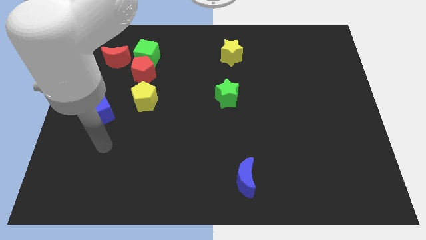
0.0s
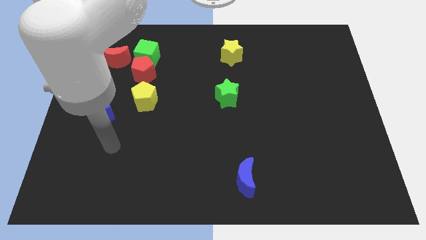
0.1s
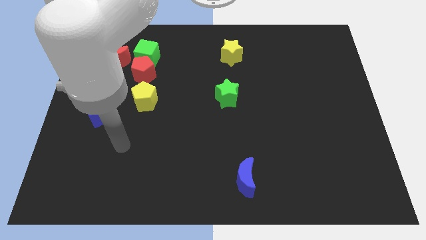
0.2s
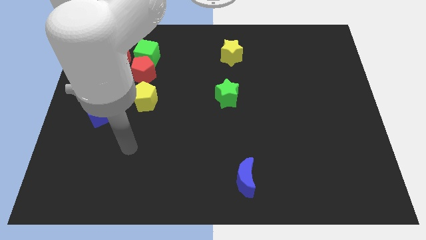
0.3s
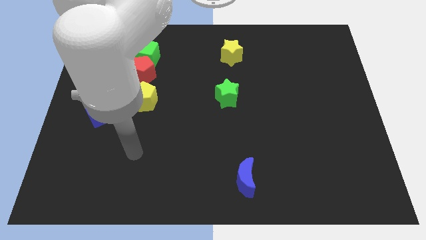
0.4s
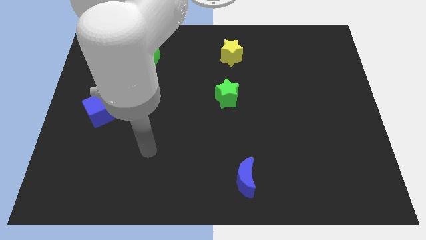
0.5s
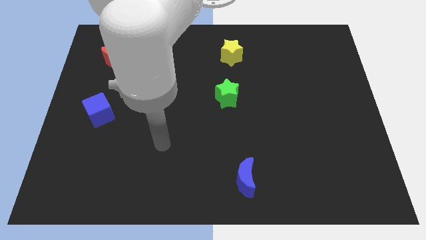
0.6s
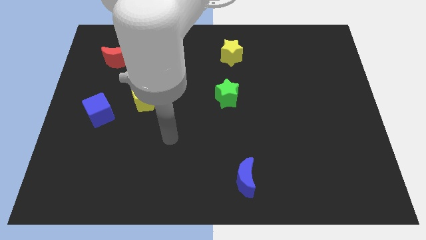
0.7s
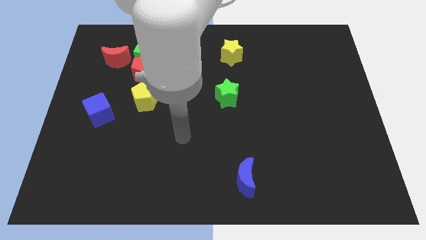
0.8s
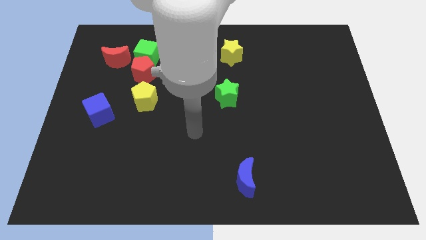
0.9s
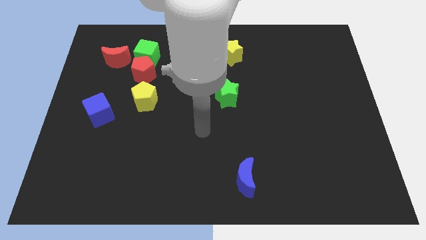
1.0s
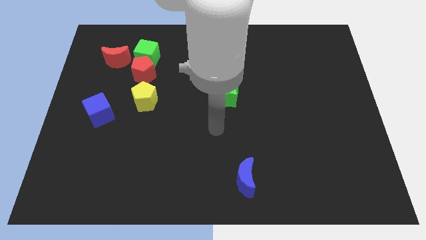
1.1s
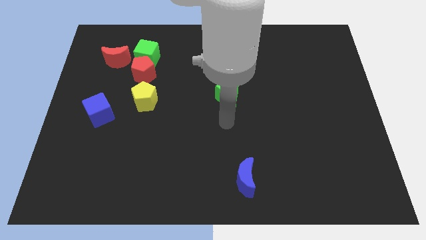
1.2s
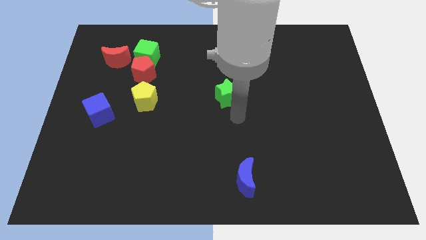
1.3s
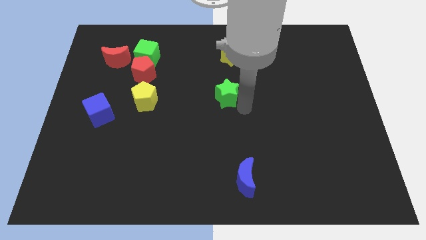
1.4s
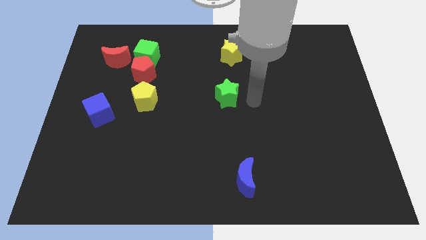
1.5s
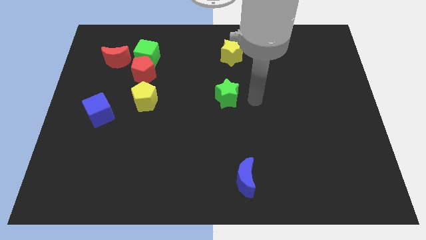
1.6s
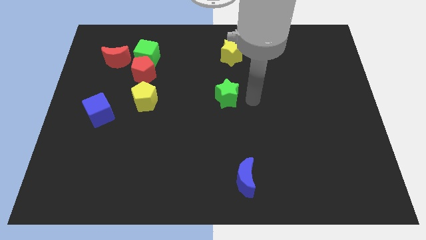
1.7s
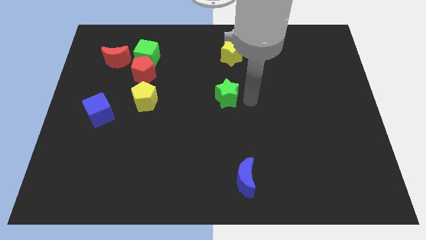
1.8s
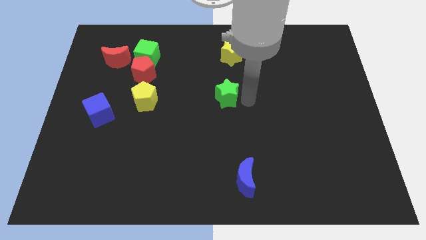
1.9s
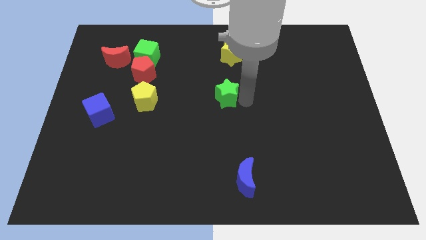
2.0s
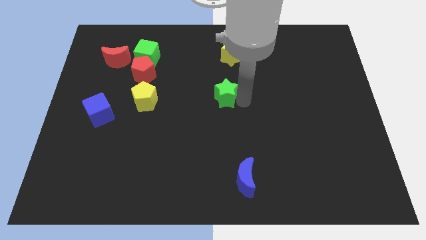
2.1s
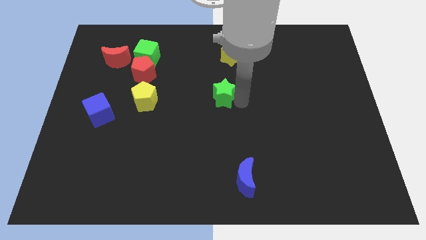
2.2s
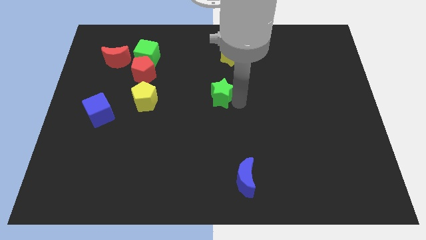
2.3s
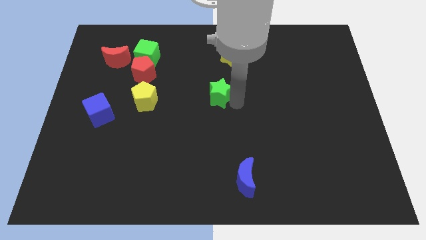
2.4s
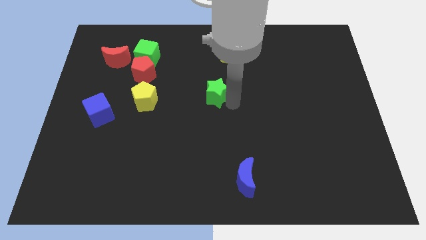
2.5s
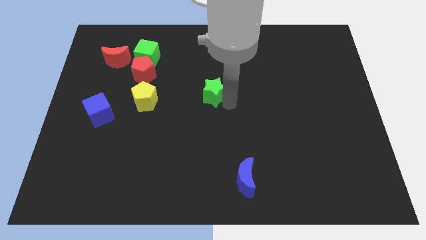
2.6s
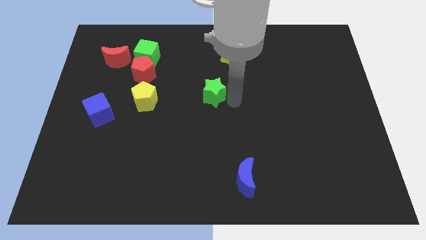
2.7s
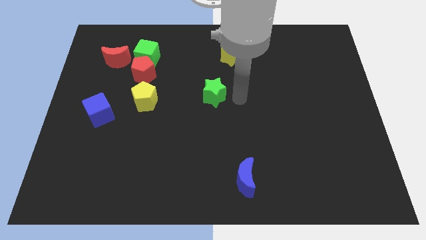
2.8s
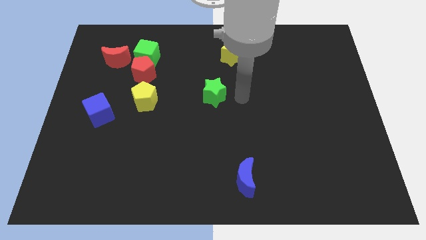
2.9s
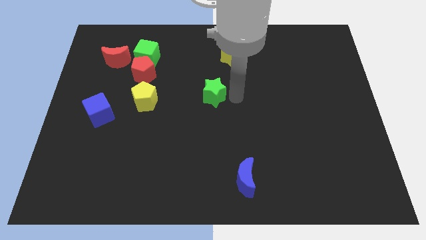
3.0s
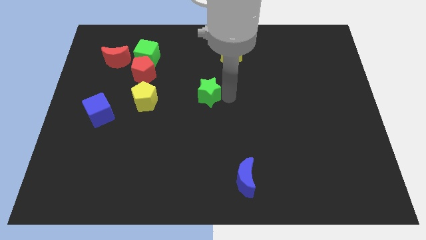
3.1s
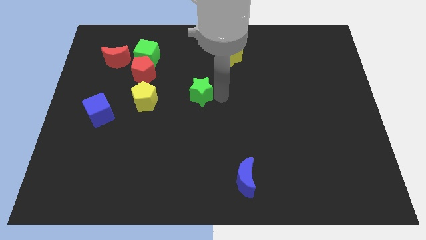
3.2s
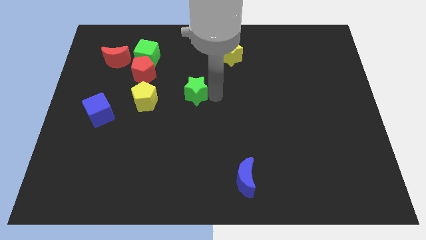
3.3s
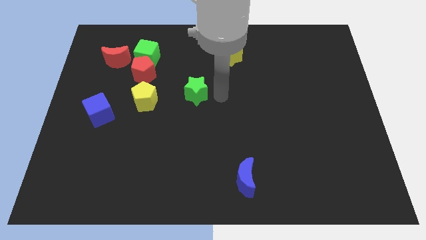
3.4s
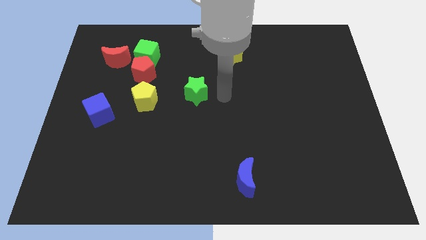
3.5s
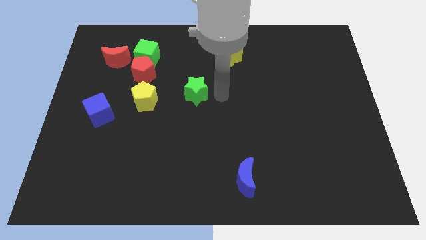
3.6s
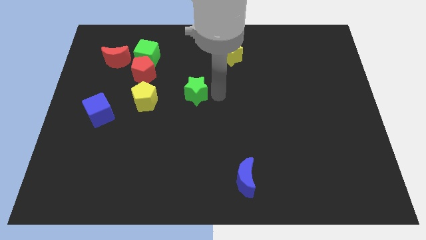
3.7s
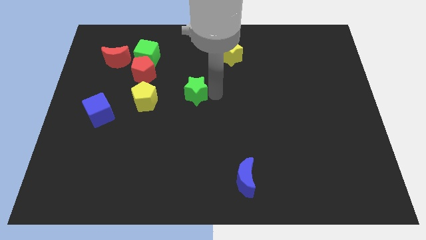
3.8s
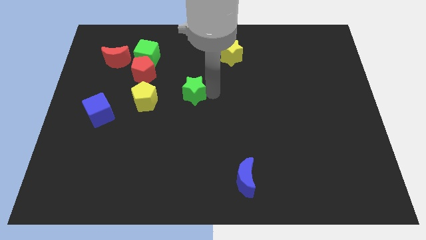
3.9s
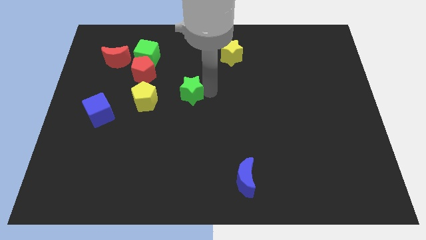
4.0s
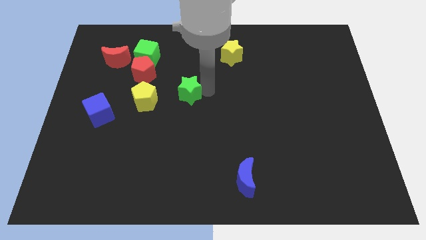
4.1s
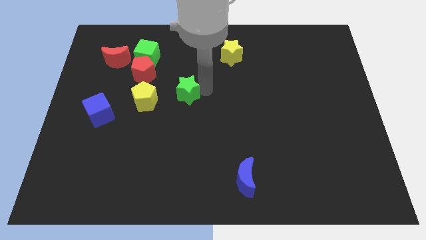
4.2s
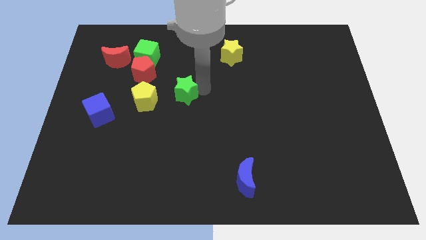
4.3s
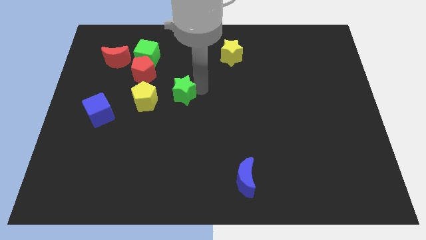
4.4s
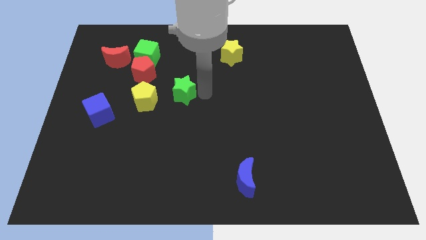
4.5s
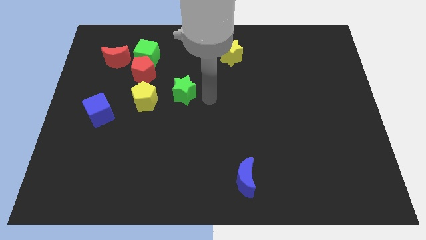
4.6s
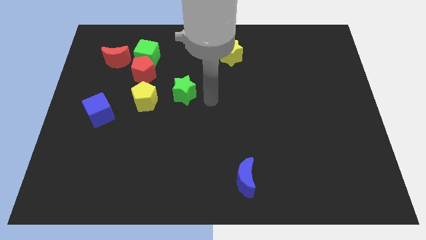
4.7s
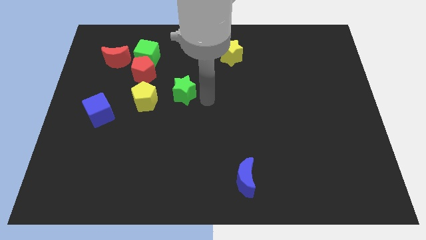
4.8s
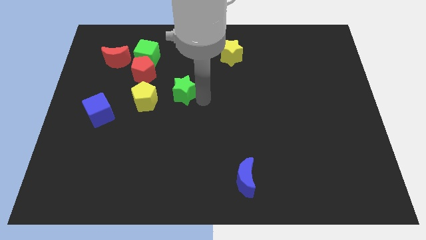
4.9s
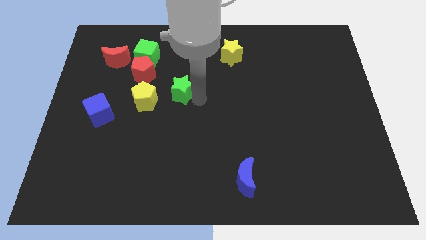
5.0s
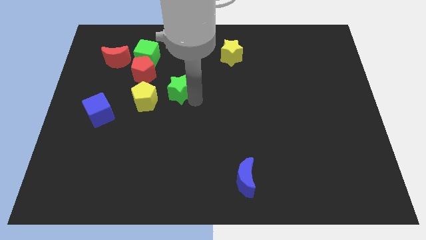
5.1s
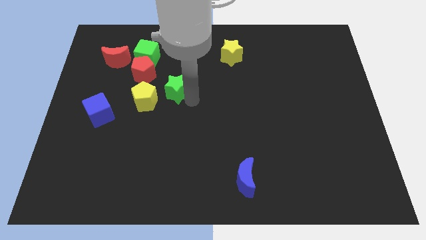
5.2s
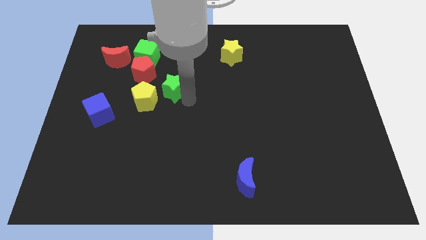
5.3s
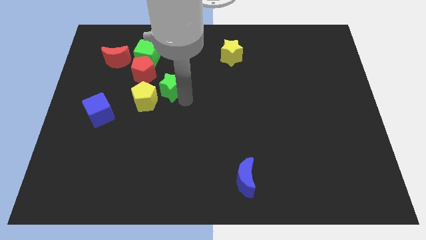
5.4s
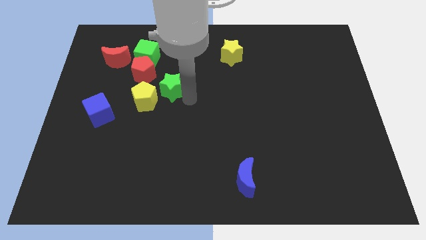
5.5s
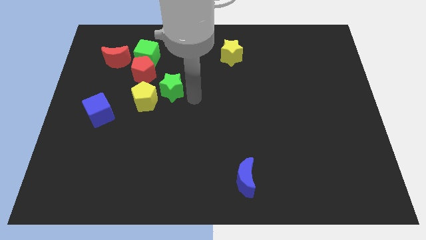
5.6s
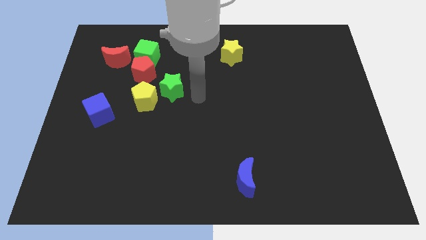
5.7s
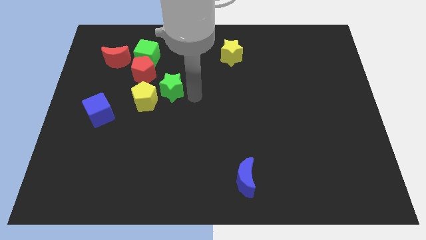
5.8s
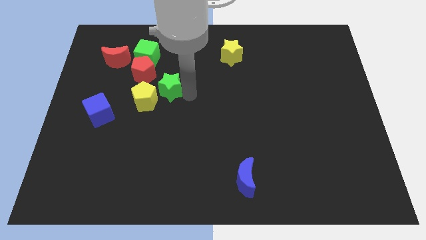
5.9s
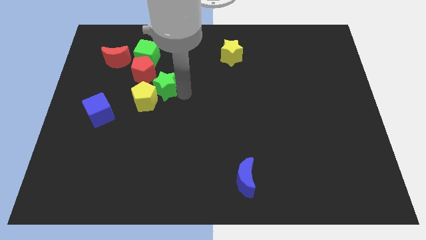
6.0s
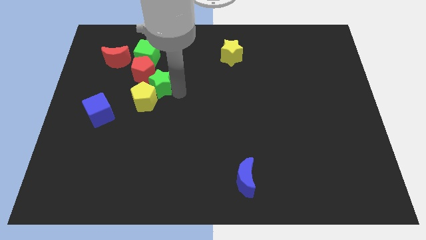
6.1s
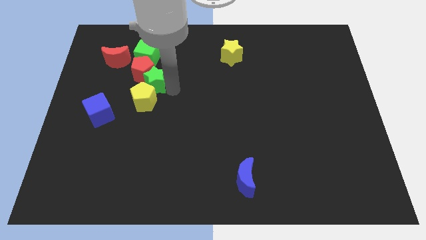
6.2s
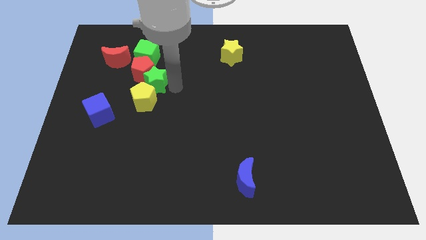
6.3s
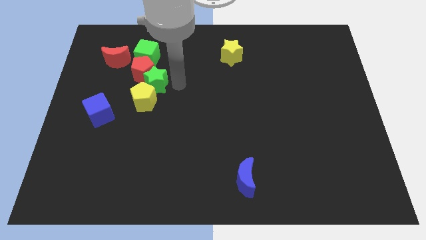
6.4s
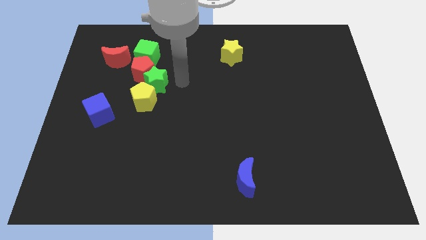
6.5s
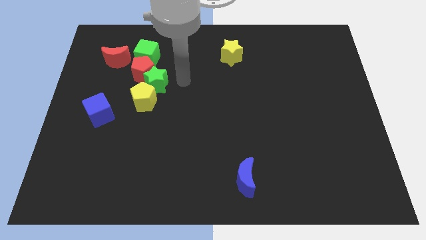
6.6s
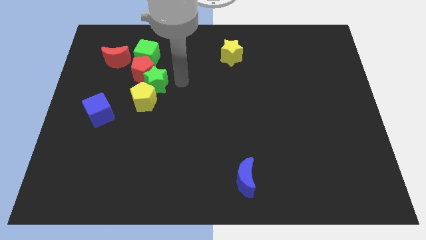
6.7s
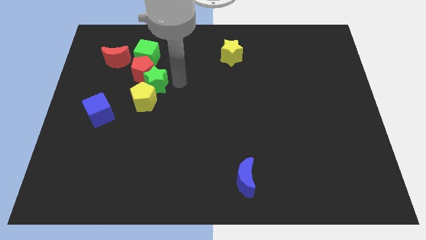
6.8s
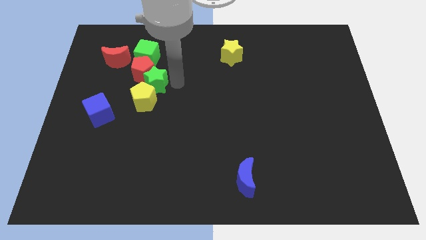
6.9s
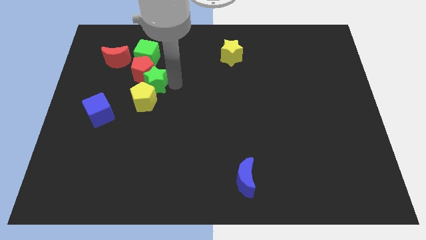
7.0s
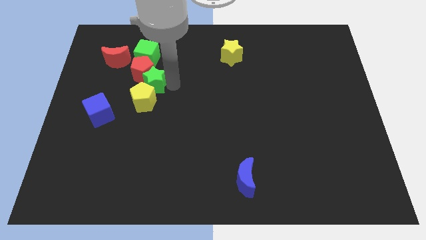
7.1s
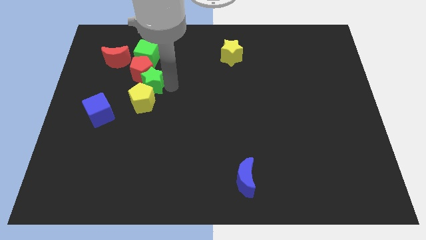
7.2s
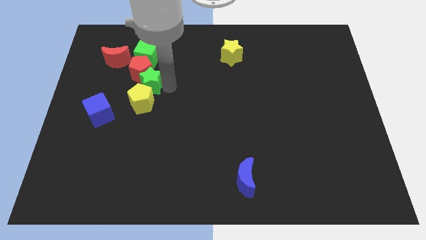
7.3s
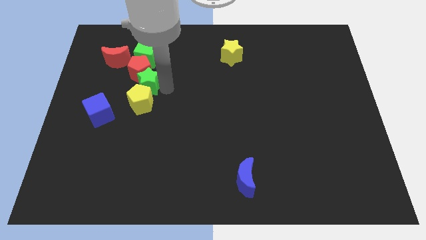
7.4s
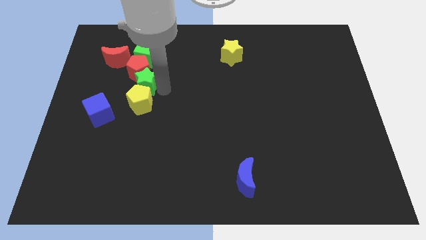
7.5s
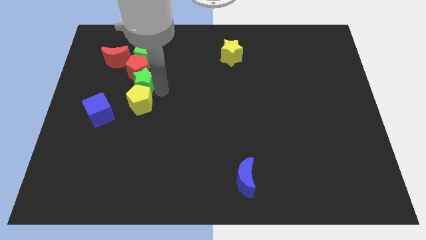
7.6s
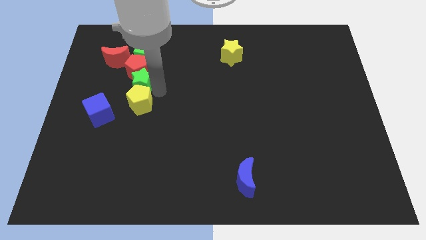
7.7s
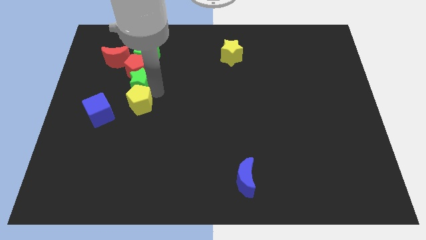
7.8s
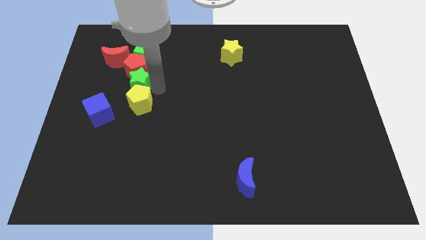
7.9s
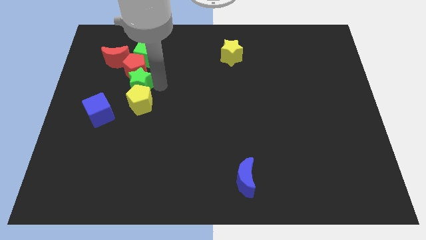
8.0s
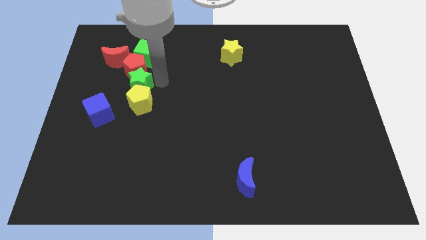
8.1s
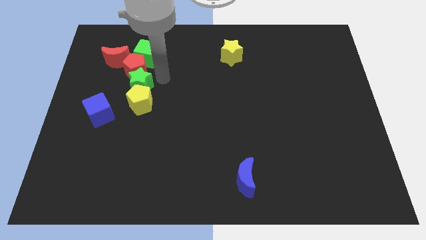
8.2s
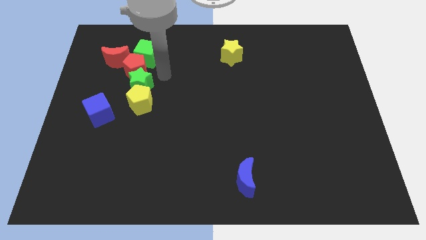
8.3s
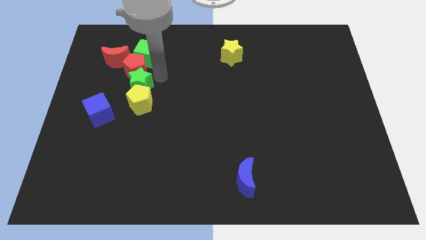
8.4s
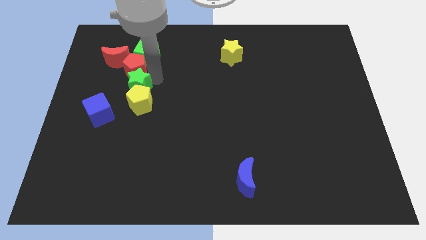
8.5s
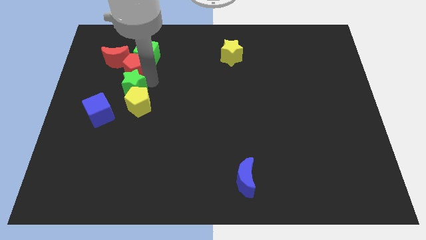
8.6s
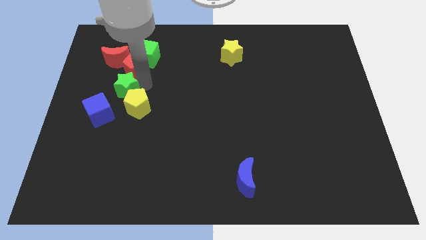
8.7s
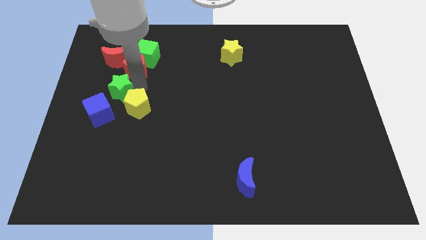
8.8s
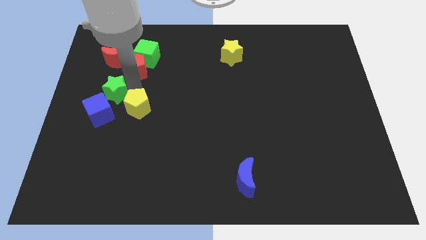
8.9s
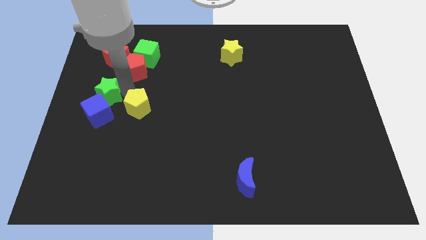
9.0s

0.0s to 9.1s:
move the green star to the left side of the board
